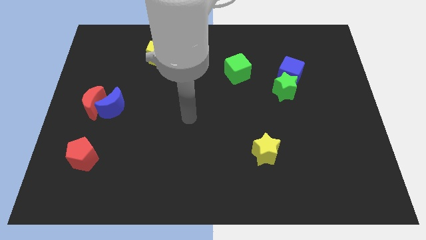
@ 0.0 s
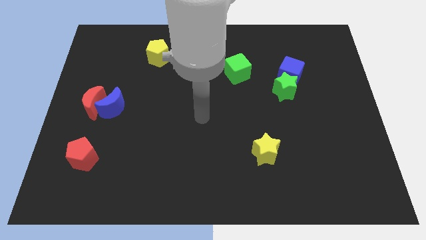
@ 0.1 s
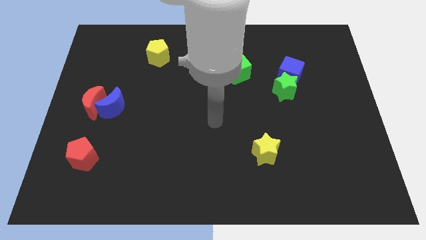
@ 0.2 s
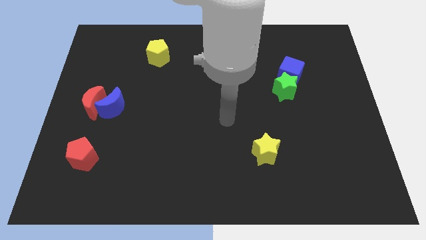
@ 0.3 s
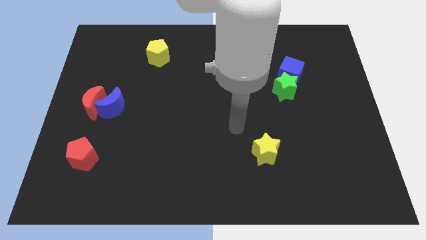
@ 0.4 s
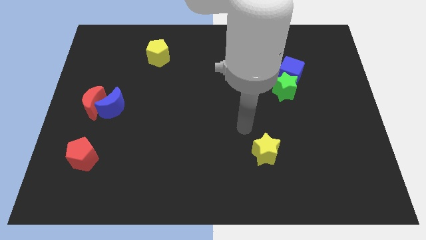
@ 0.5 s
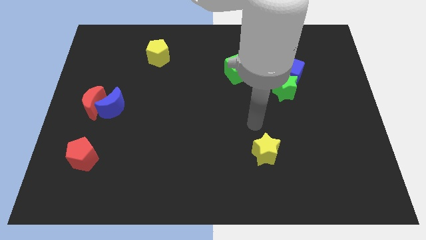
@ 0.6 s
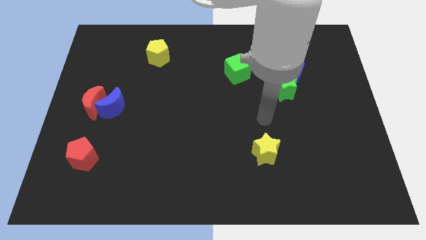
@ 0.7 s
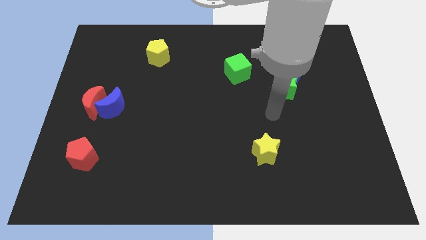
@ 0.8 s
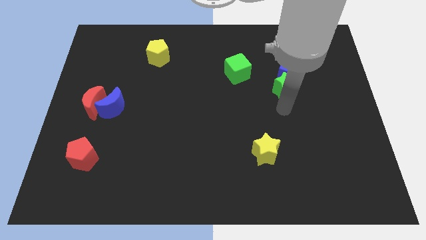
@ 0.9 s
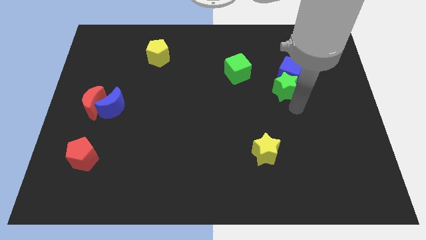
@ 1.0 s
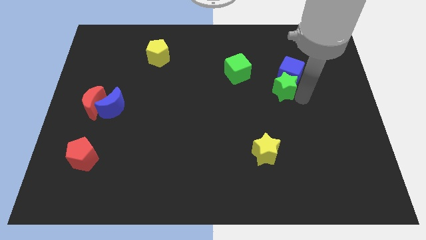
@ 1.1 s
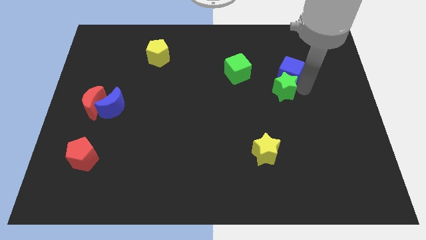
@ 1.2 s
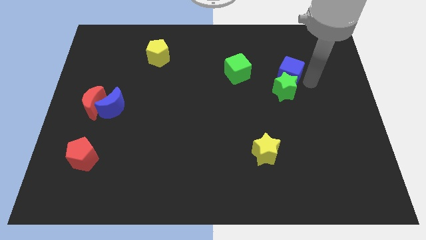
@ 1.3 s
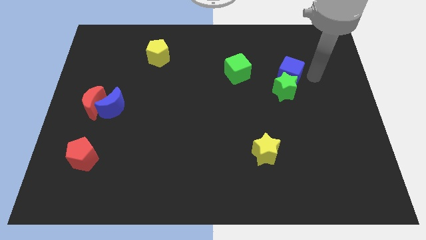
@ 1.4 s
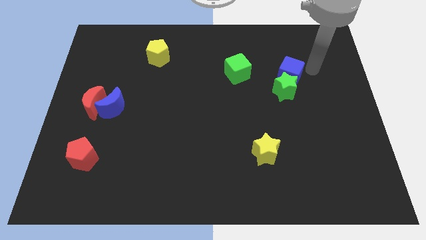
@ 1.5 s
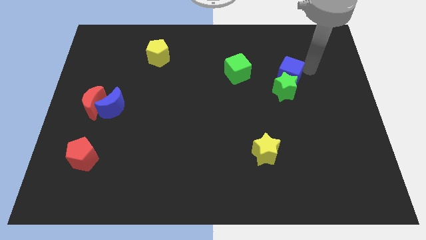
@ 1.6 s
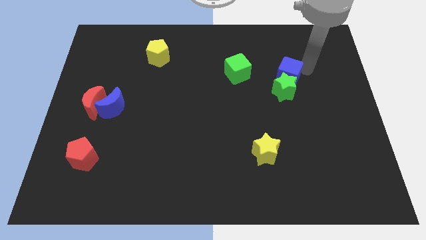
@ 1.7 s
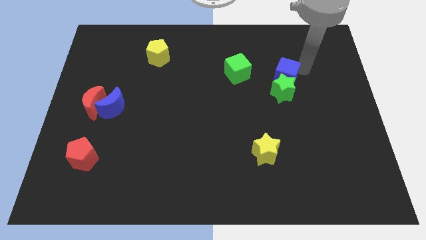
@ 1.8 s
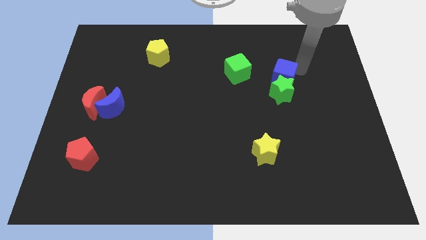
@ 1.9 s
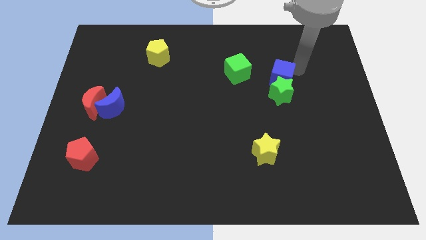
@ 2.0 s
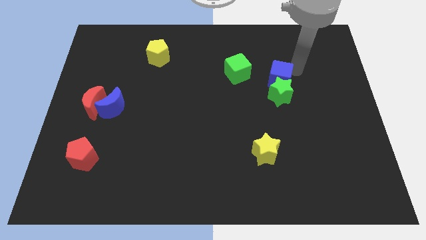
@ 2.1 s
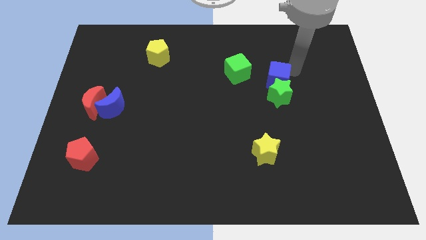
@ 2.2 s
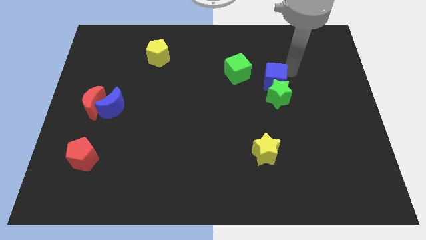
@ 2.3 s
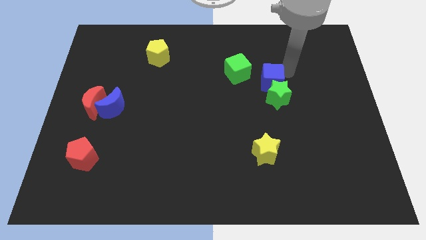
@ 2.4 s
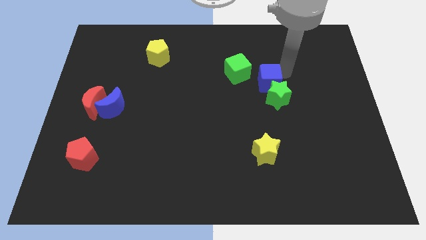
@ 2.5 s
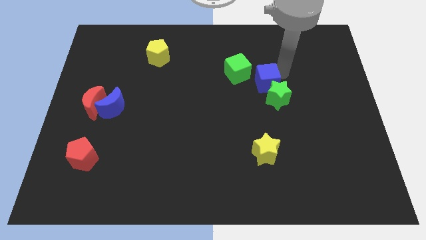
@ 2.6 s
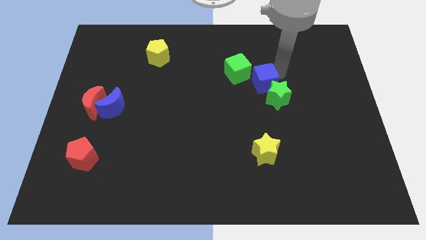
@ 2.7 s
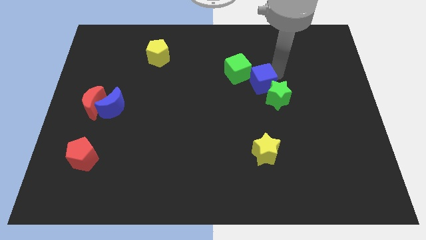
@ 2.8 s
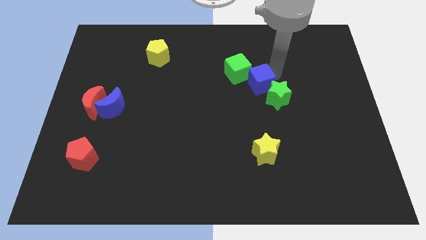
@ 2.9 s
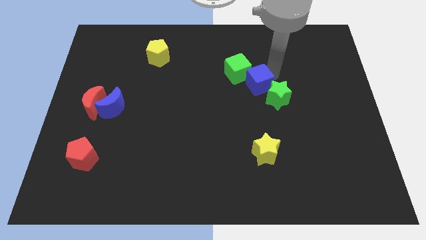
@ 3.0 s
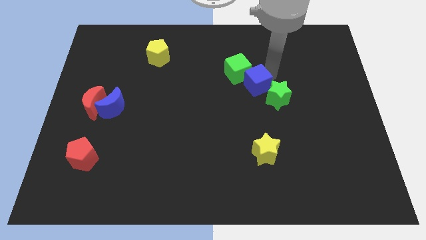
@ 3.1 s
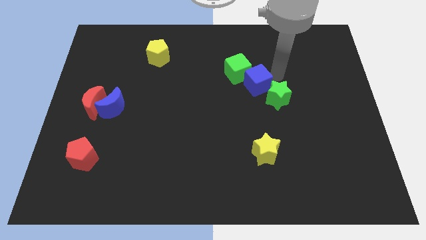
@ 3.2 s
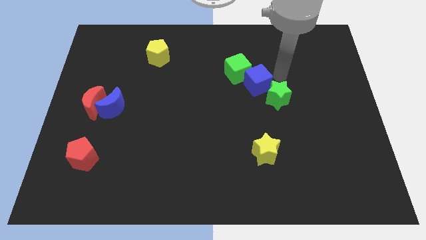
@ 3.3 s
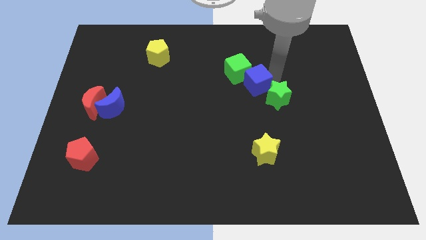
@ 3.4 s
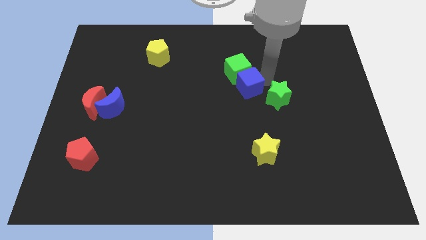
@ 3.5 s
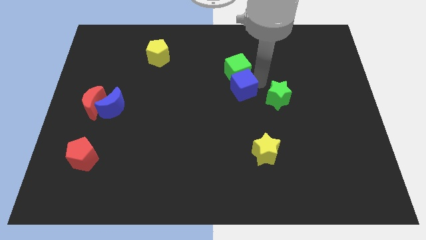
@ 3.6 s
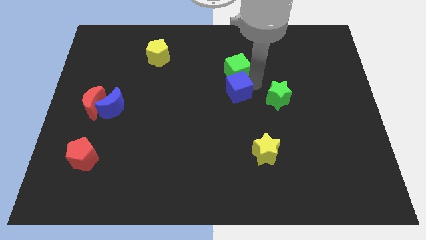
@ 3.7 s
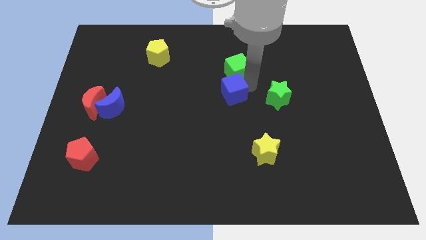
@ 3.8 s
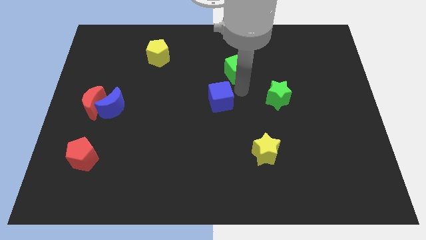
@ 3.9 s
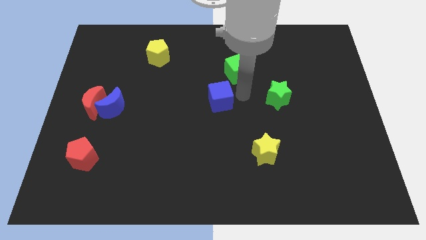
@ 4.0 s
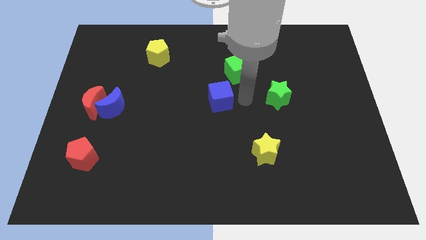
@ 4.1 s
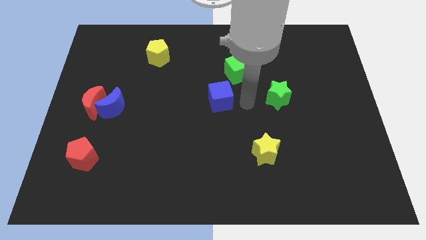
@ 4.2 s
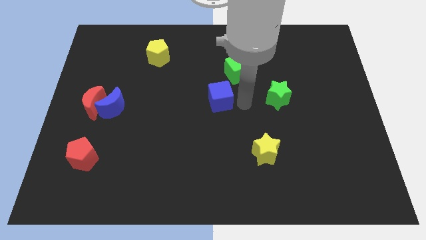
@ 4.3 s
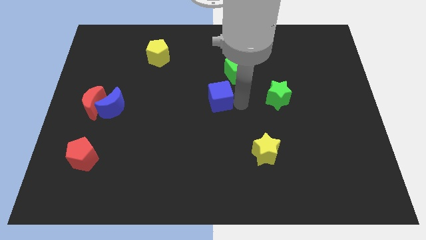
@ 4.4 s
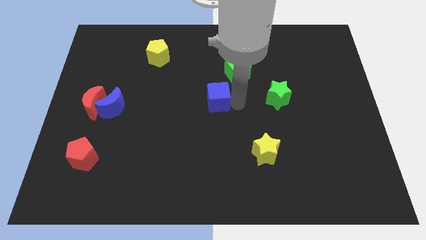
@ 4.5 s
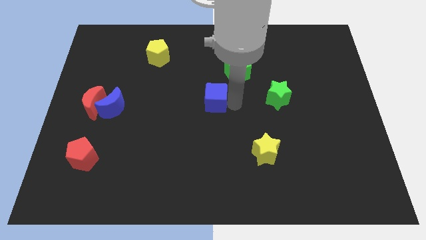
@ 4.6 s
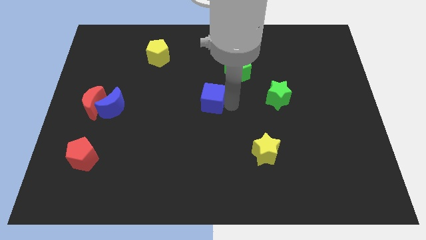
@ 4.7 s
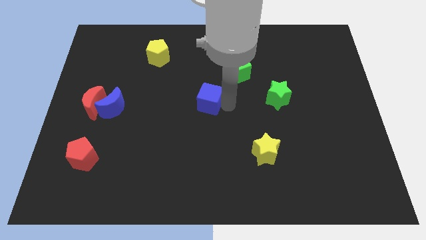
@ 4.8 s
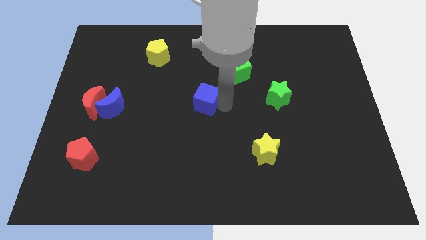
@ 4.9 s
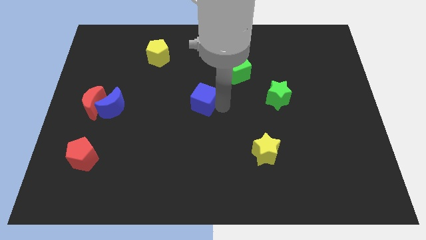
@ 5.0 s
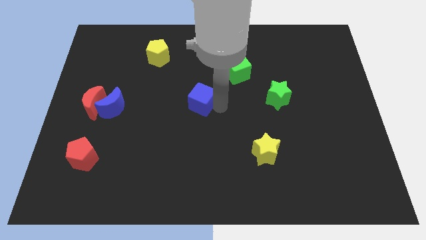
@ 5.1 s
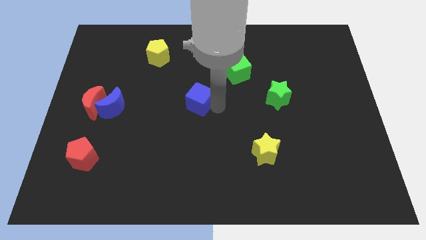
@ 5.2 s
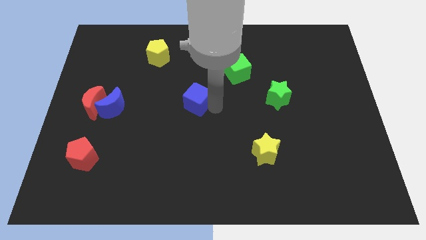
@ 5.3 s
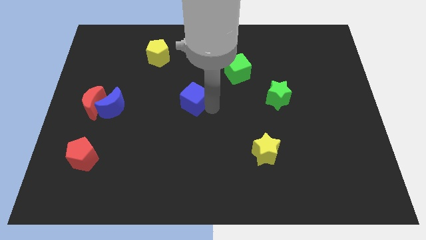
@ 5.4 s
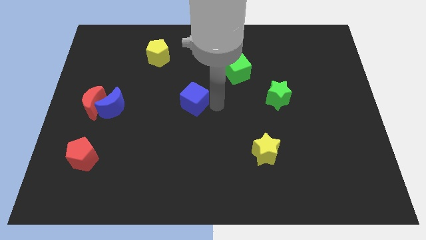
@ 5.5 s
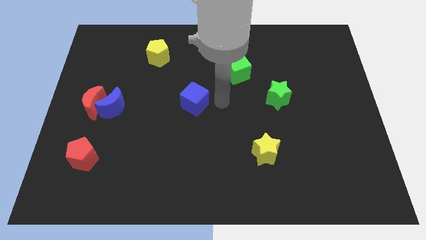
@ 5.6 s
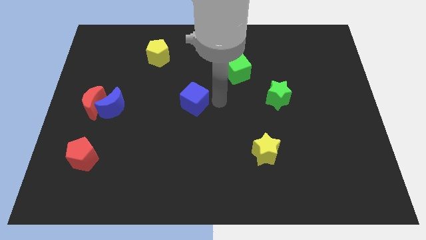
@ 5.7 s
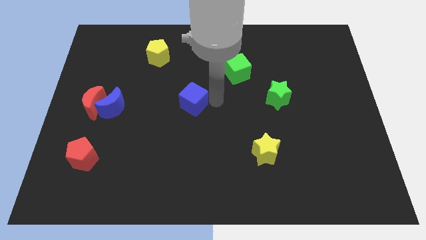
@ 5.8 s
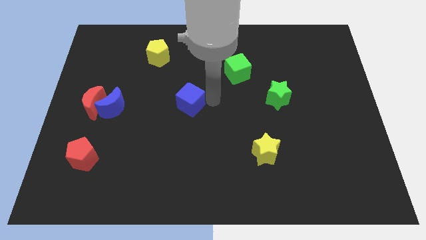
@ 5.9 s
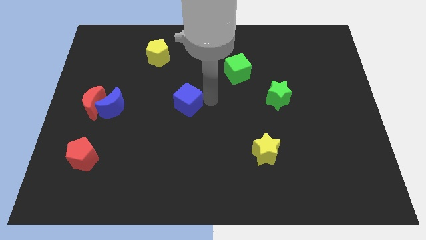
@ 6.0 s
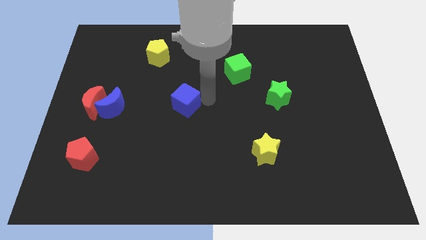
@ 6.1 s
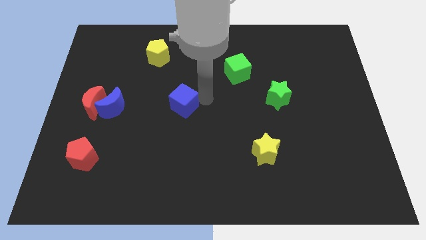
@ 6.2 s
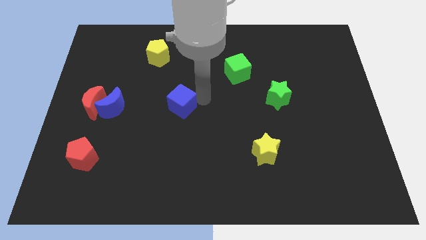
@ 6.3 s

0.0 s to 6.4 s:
push the blue cube to the right side of the blue moon

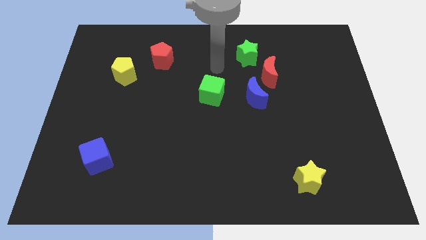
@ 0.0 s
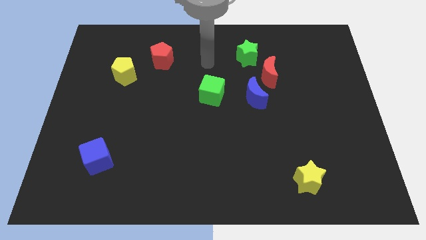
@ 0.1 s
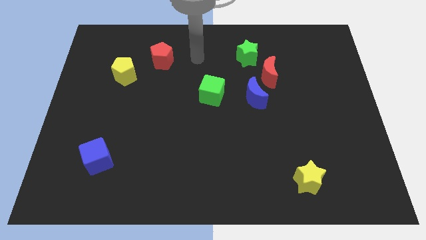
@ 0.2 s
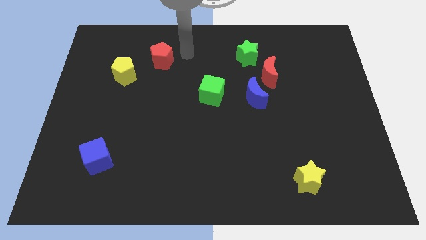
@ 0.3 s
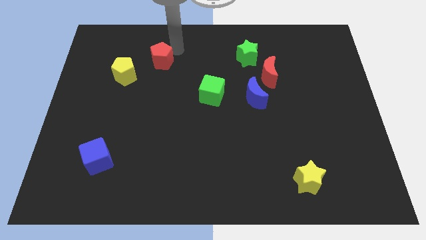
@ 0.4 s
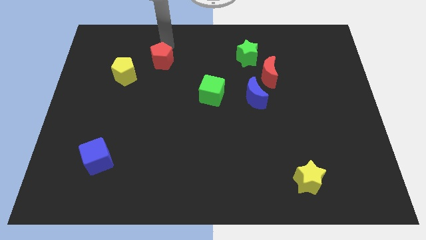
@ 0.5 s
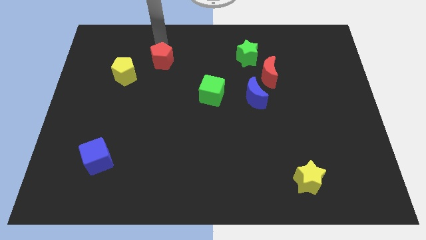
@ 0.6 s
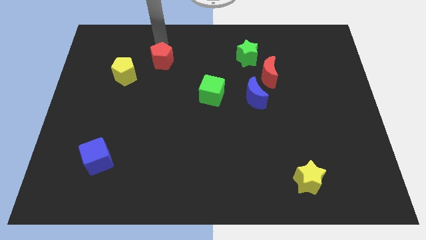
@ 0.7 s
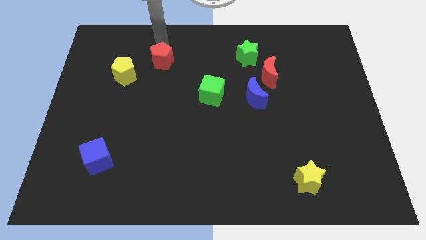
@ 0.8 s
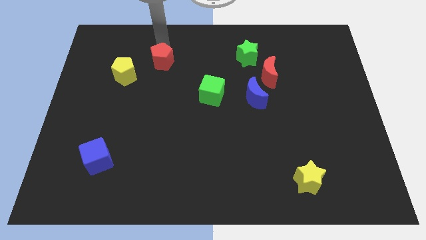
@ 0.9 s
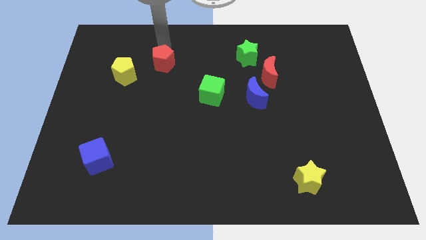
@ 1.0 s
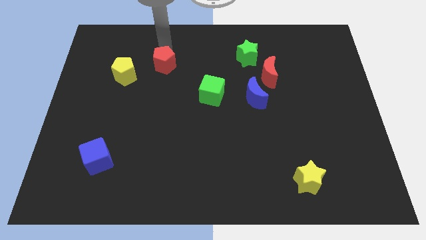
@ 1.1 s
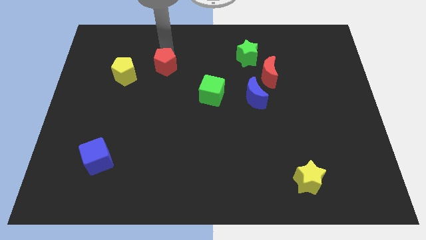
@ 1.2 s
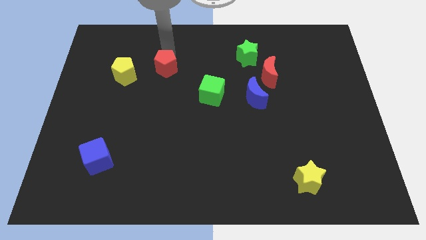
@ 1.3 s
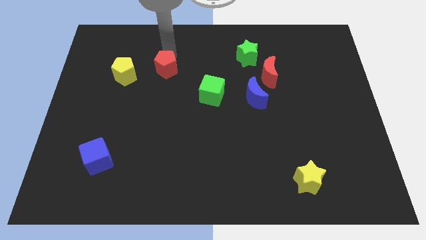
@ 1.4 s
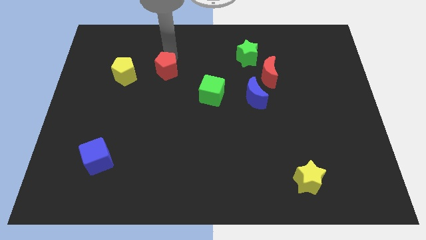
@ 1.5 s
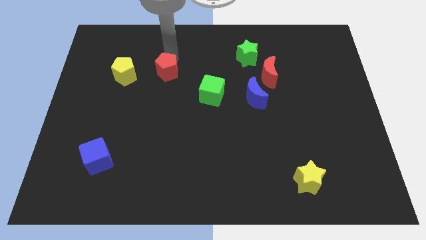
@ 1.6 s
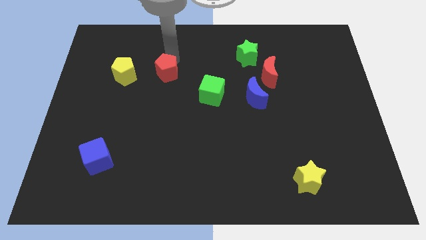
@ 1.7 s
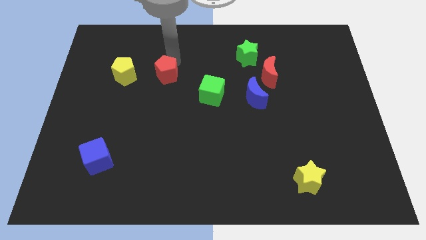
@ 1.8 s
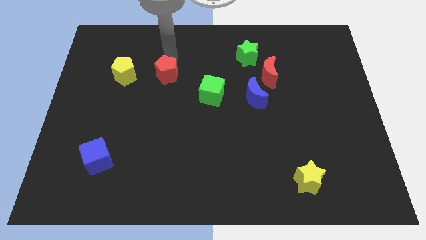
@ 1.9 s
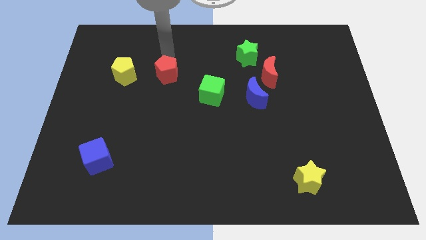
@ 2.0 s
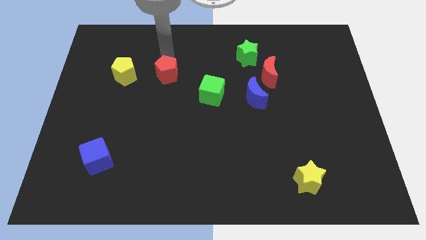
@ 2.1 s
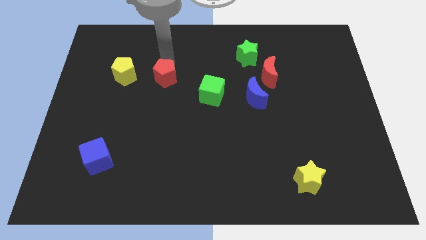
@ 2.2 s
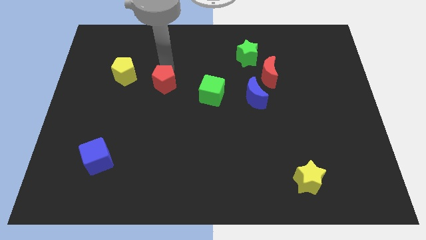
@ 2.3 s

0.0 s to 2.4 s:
push the red pentagon left of the green cube
